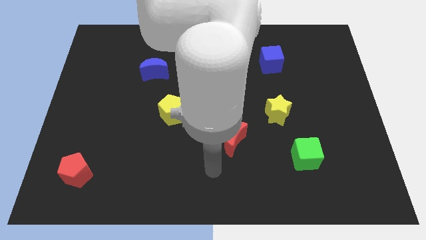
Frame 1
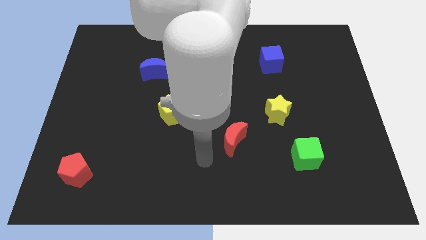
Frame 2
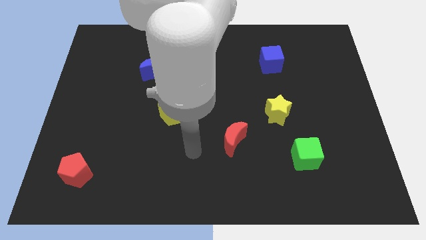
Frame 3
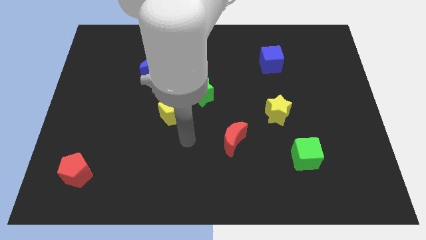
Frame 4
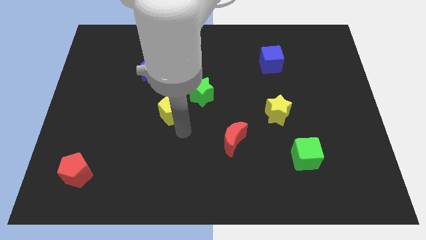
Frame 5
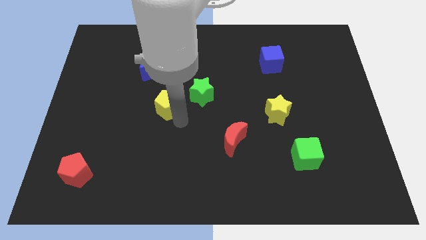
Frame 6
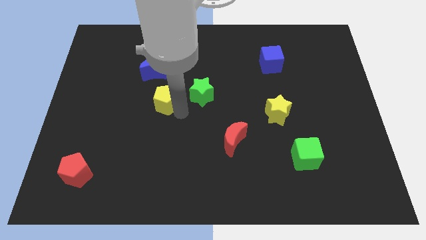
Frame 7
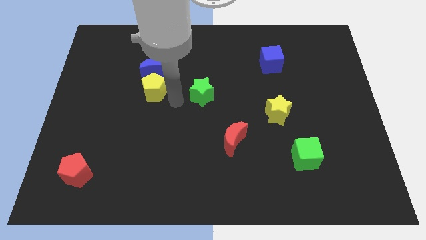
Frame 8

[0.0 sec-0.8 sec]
move the green star away from the yellow pentagon

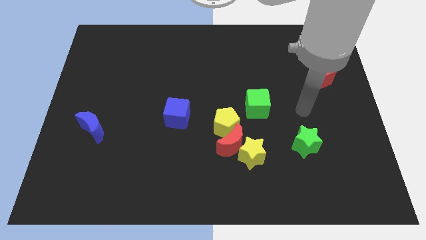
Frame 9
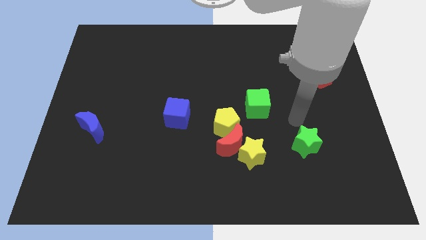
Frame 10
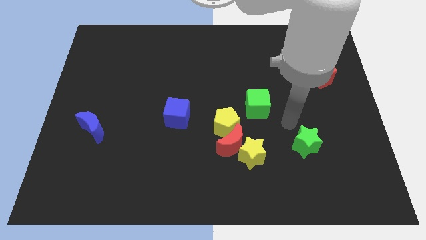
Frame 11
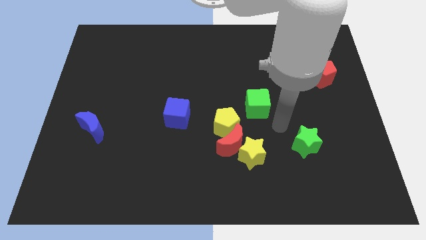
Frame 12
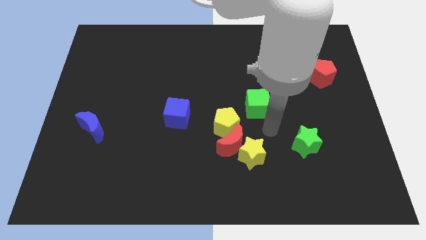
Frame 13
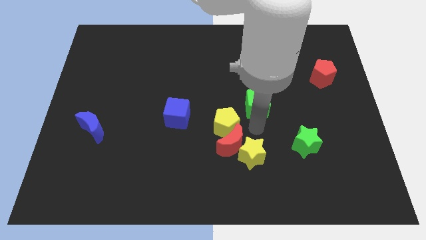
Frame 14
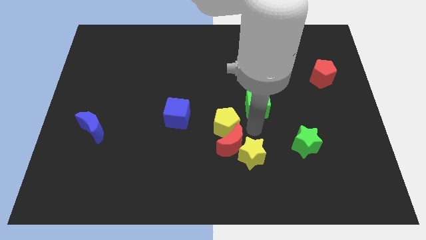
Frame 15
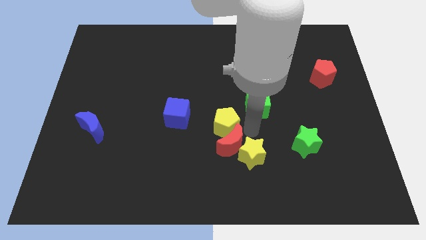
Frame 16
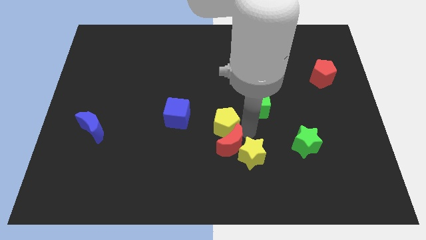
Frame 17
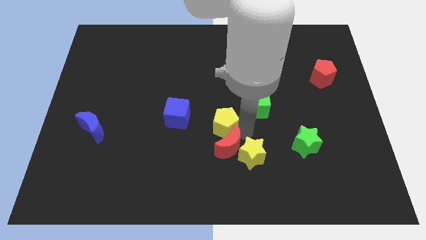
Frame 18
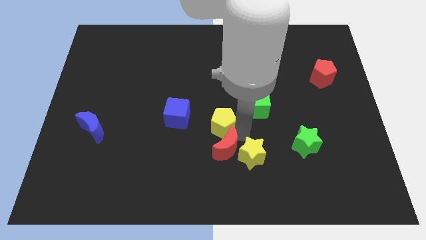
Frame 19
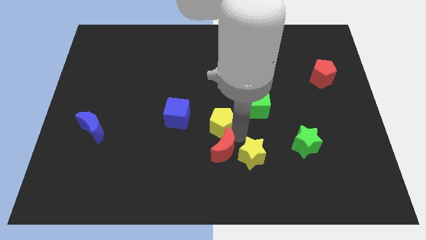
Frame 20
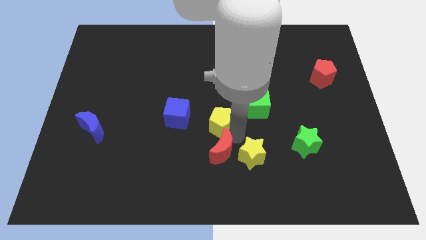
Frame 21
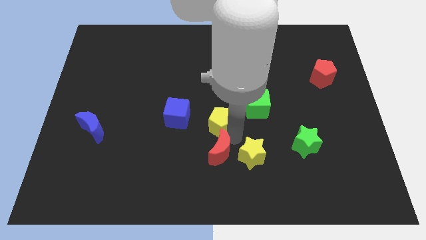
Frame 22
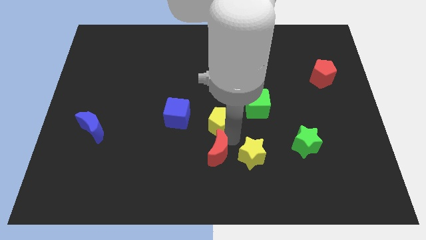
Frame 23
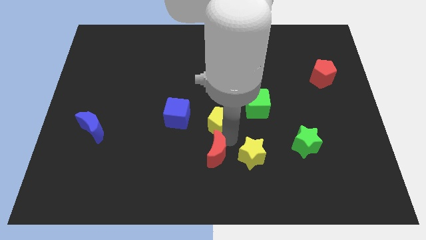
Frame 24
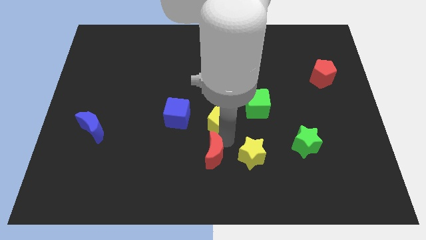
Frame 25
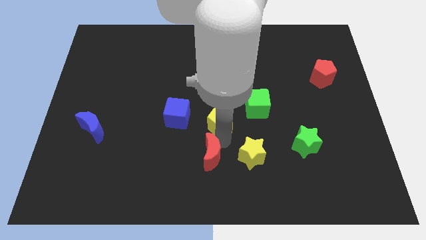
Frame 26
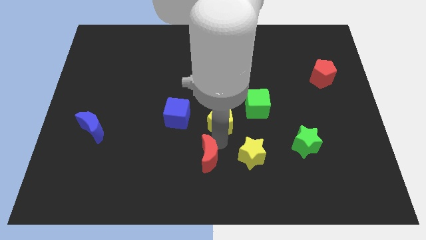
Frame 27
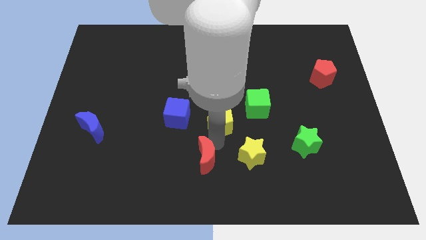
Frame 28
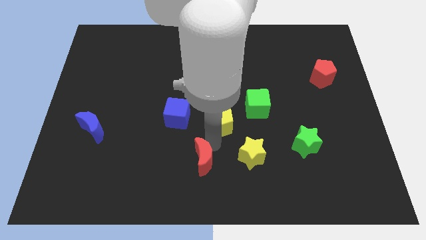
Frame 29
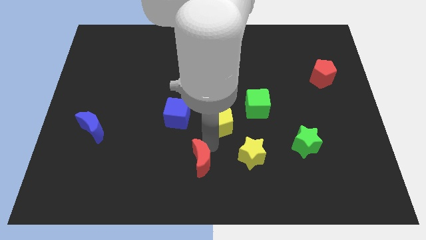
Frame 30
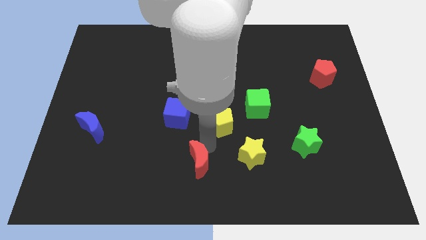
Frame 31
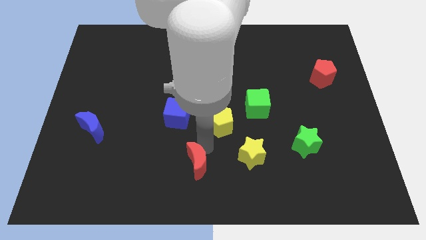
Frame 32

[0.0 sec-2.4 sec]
separate the red moon from the yellow star and yellow pentagon

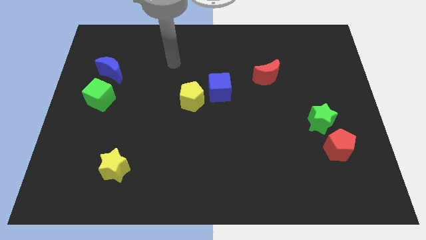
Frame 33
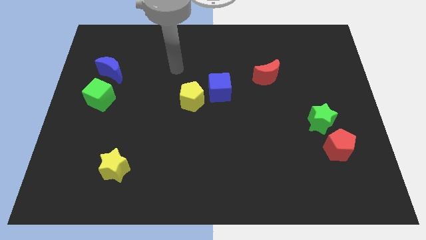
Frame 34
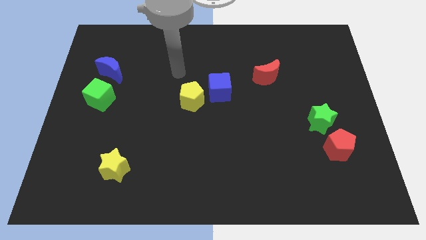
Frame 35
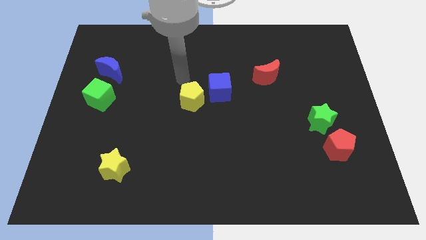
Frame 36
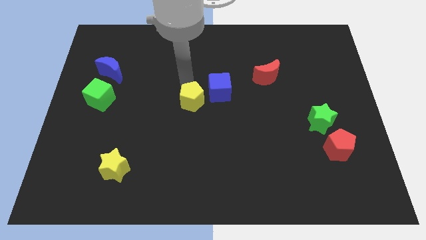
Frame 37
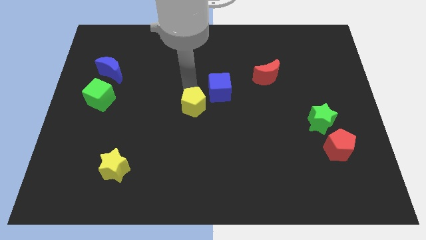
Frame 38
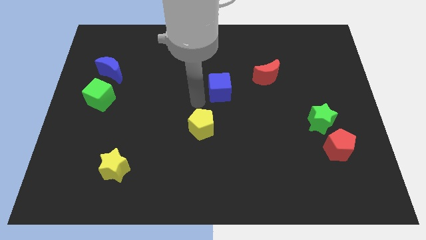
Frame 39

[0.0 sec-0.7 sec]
pull the blue cube apart from the yellow pentagon

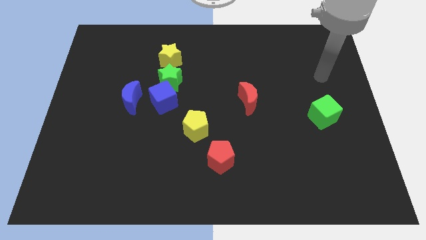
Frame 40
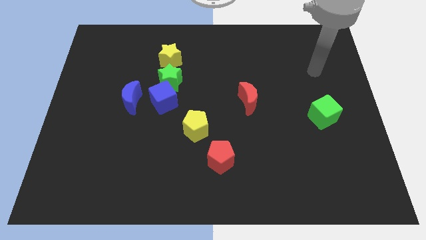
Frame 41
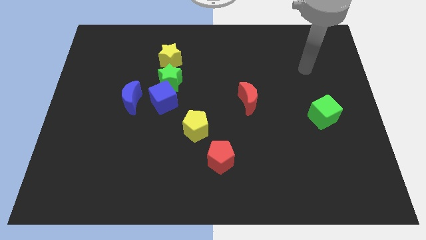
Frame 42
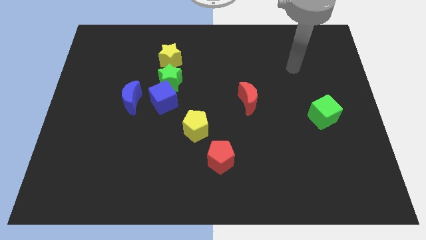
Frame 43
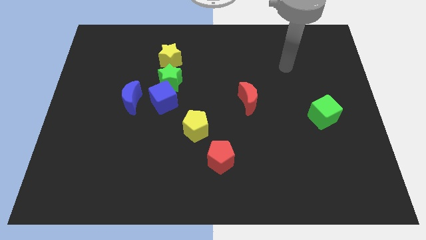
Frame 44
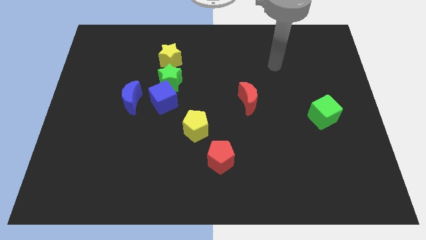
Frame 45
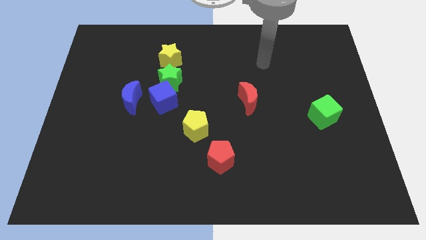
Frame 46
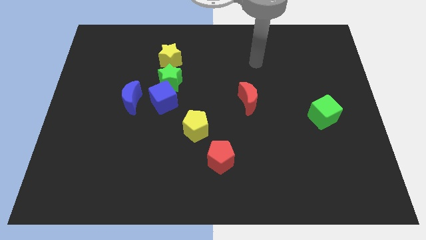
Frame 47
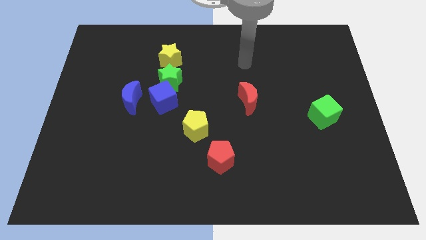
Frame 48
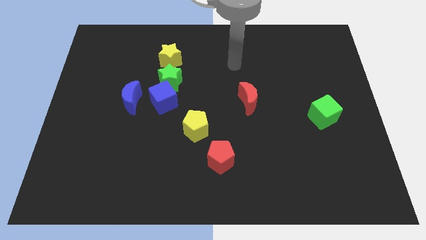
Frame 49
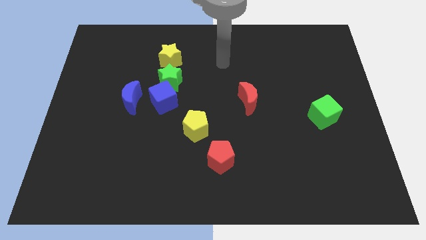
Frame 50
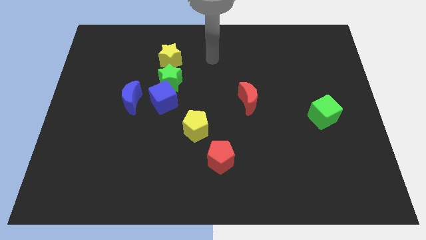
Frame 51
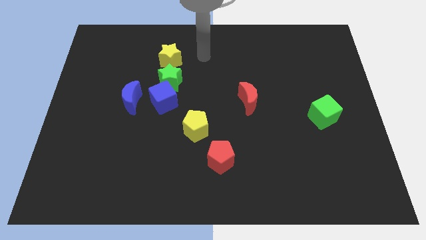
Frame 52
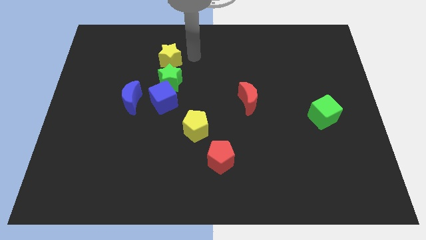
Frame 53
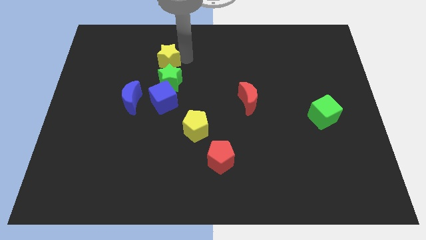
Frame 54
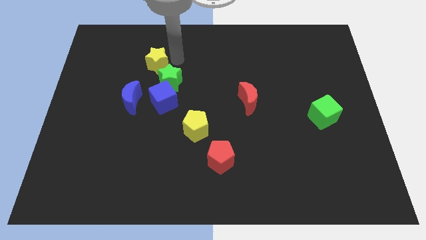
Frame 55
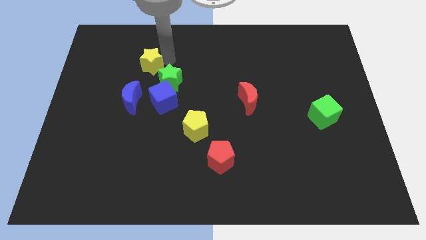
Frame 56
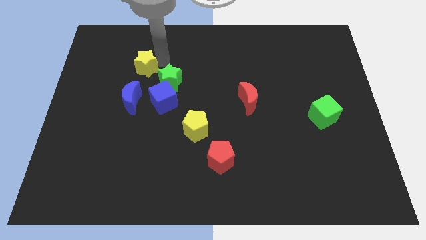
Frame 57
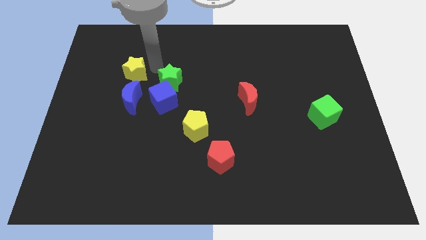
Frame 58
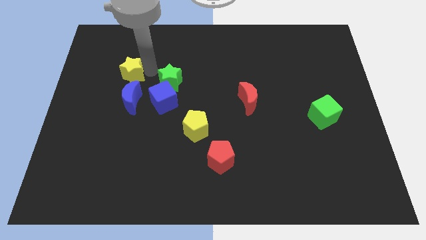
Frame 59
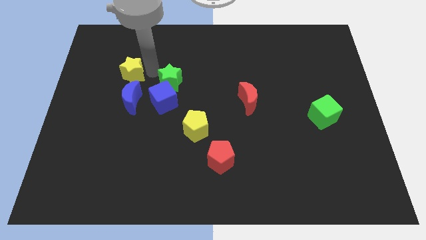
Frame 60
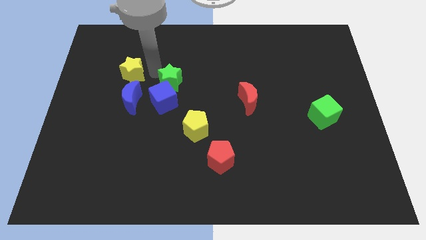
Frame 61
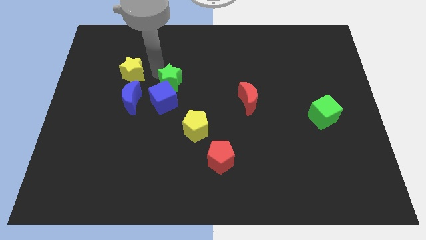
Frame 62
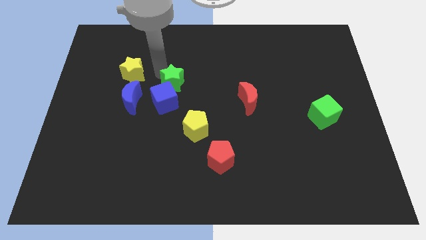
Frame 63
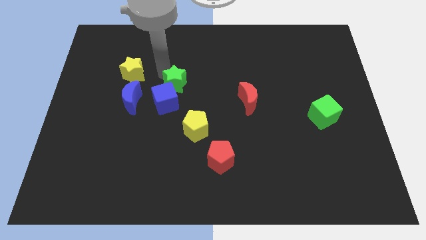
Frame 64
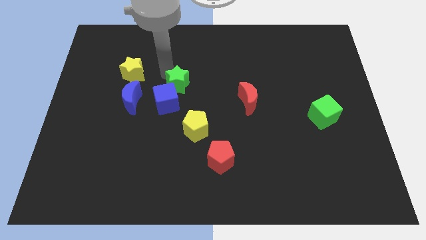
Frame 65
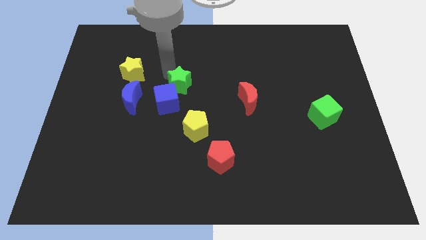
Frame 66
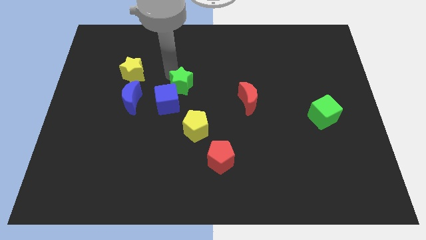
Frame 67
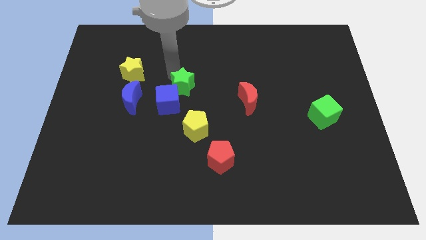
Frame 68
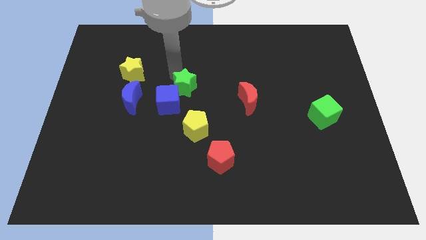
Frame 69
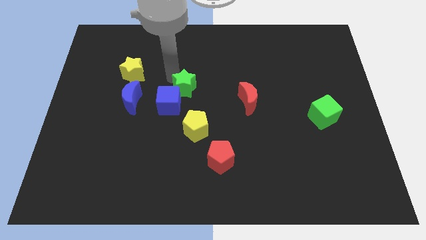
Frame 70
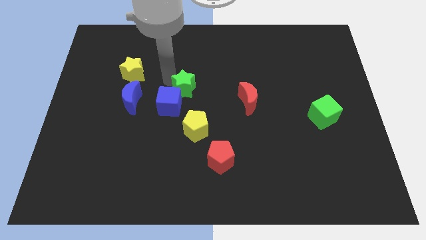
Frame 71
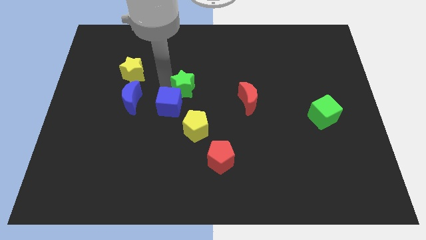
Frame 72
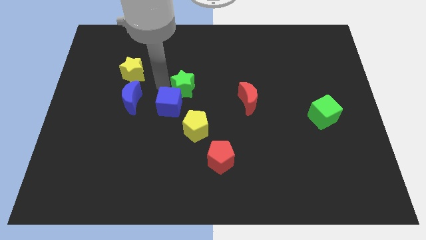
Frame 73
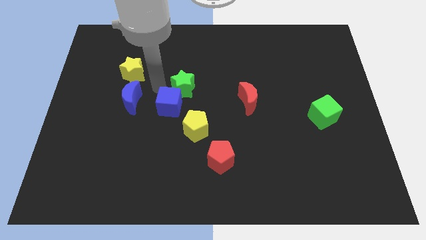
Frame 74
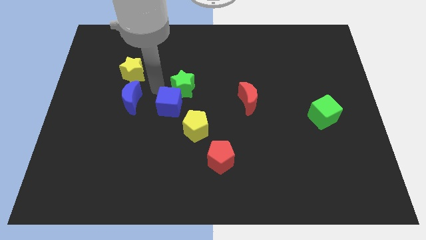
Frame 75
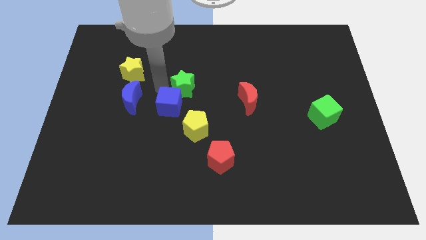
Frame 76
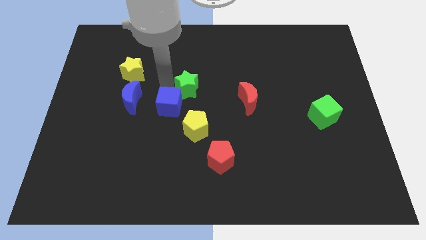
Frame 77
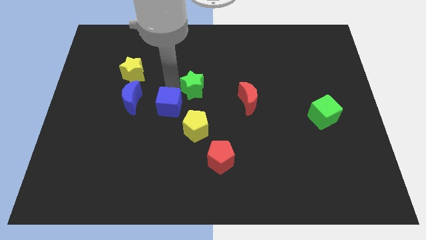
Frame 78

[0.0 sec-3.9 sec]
separate the green star from the blue cube and yellow star

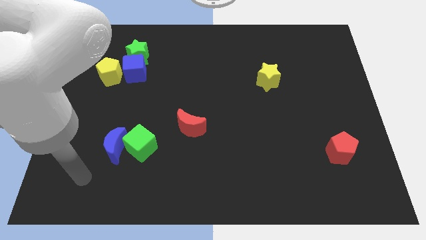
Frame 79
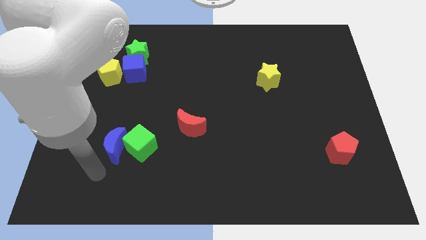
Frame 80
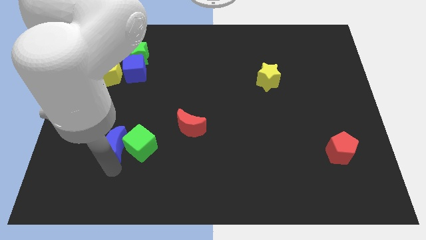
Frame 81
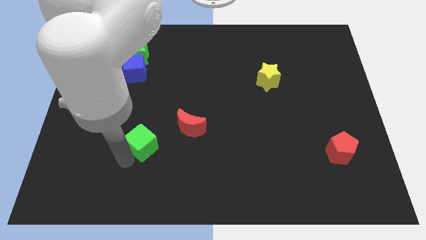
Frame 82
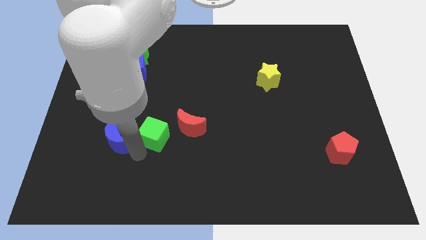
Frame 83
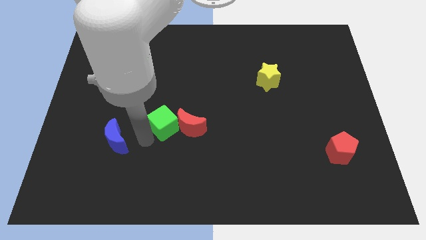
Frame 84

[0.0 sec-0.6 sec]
separate the blue moon from the green cube

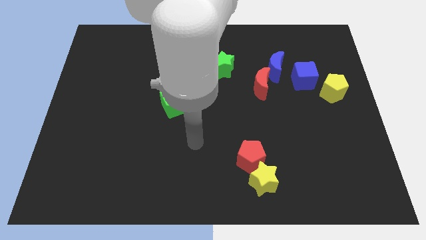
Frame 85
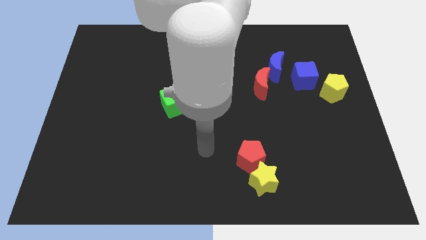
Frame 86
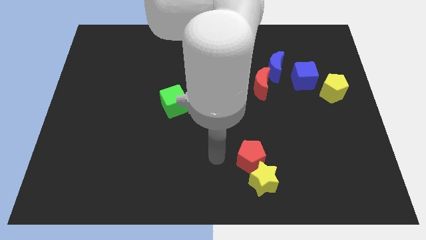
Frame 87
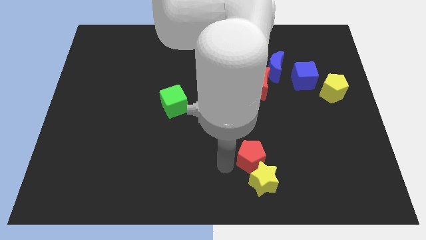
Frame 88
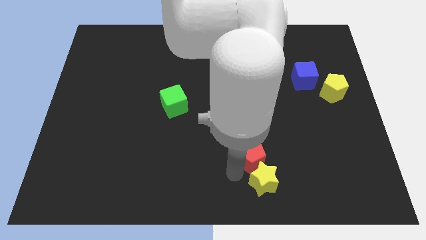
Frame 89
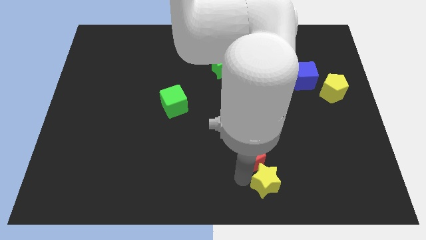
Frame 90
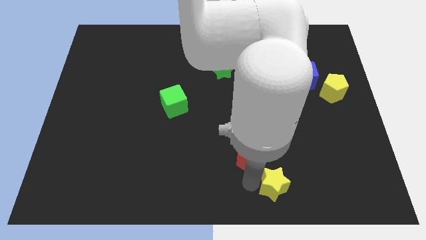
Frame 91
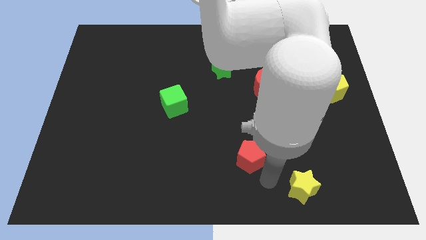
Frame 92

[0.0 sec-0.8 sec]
move the red pentagon away from the yellow star
